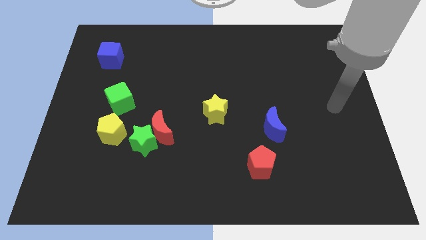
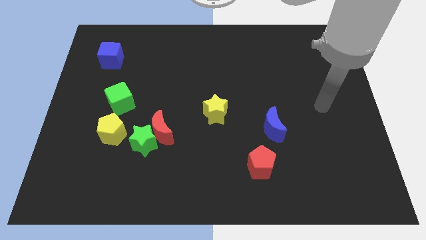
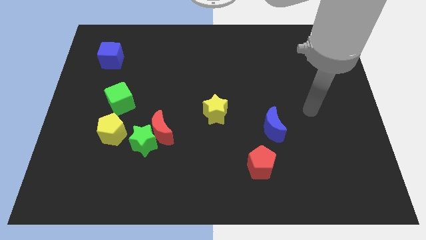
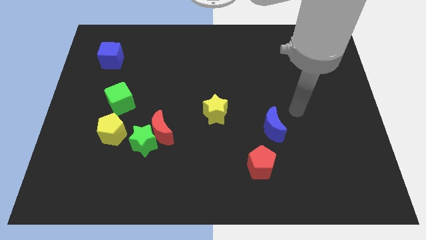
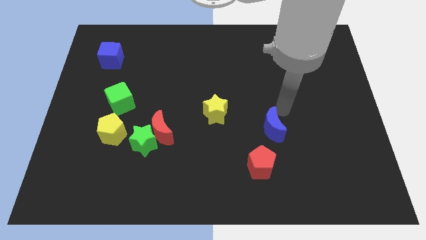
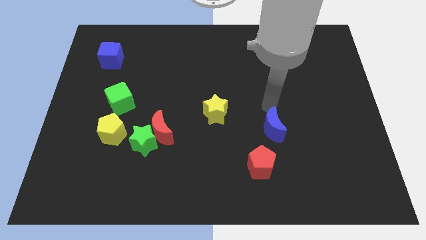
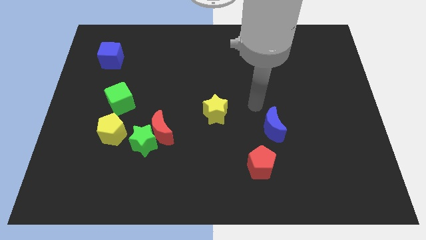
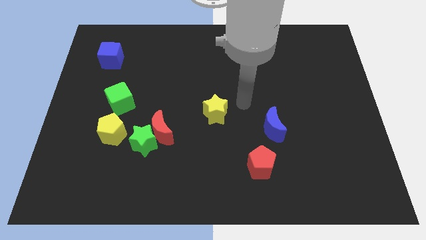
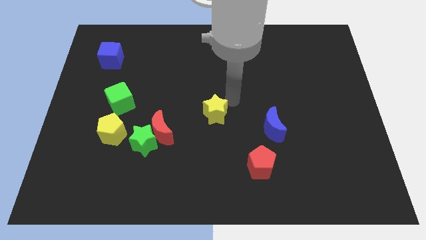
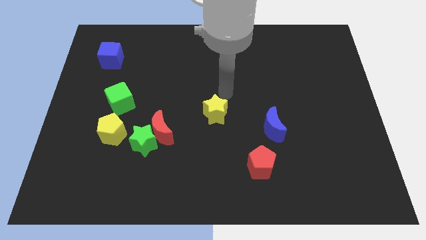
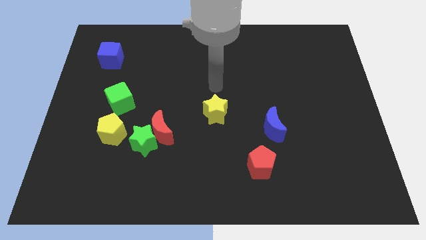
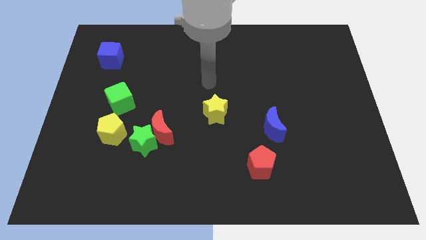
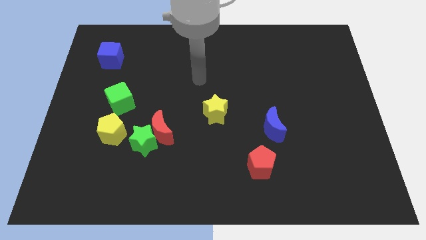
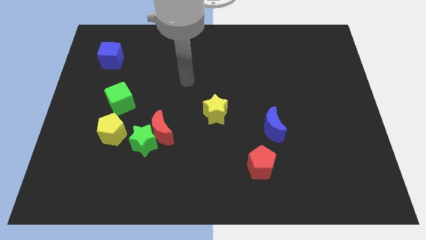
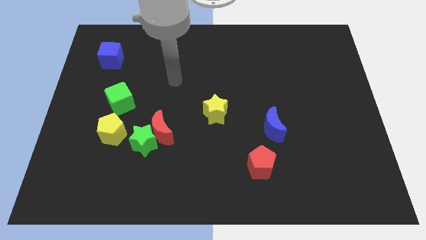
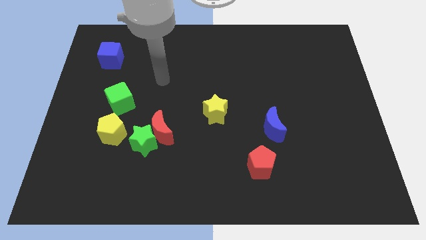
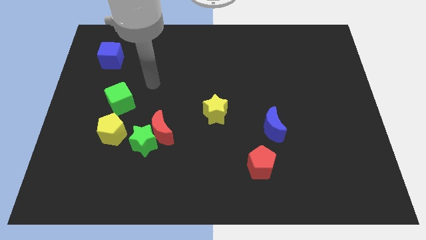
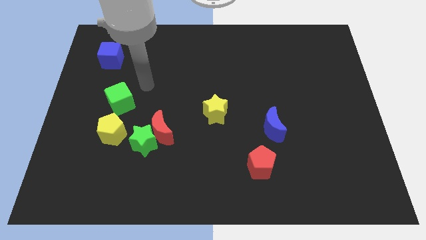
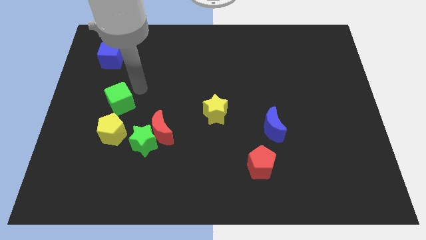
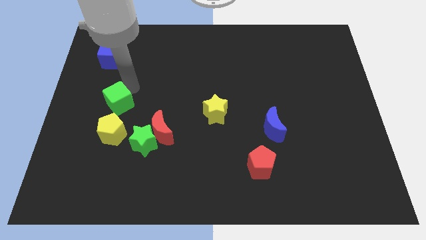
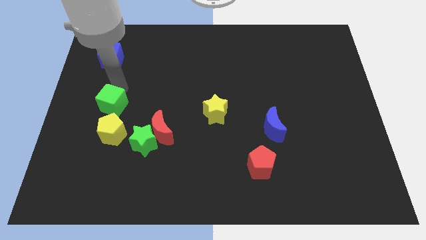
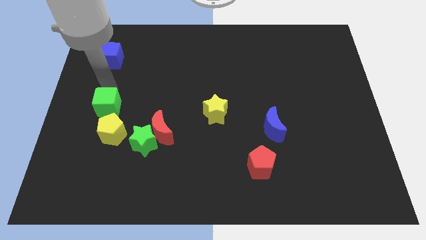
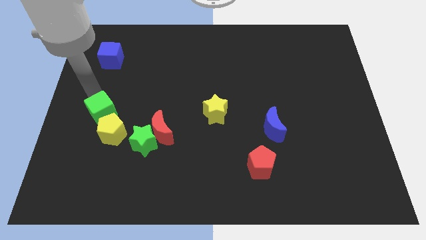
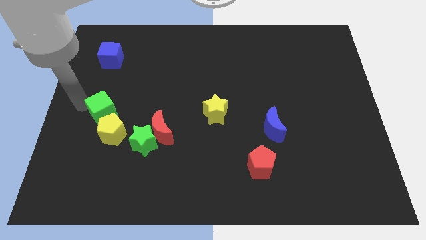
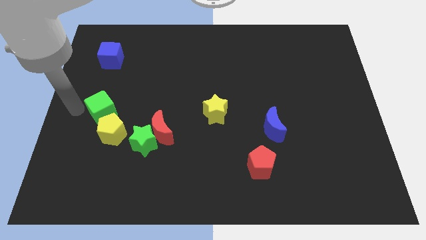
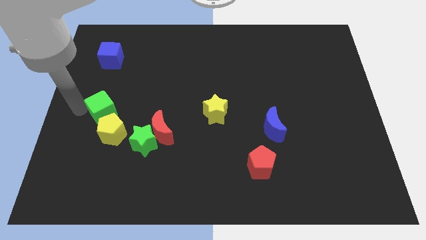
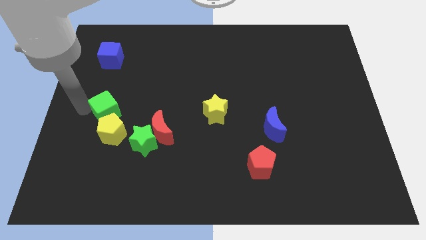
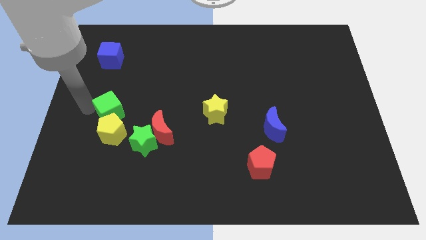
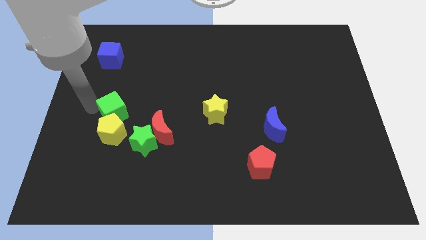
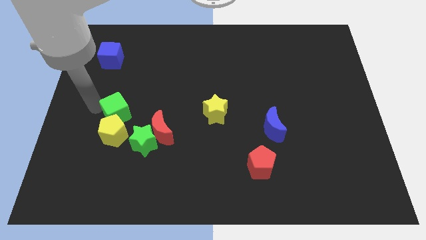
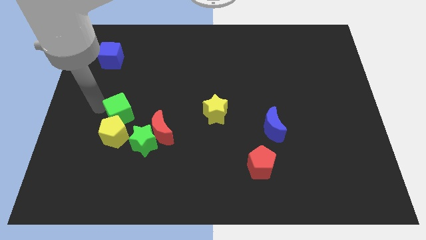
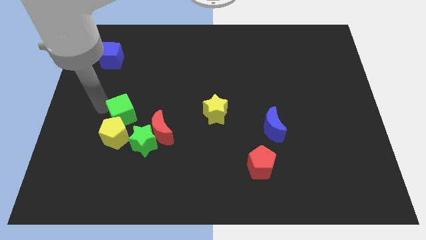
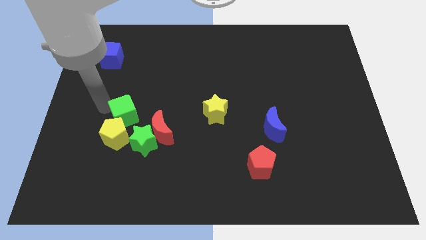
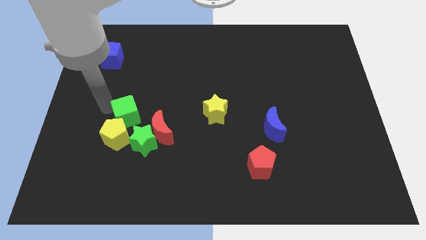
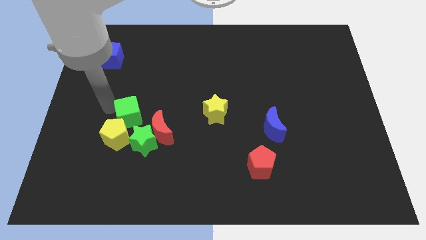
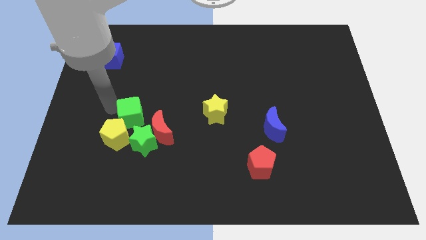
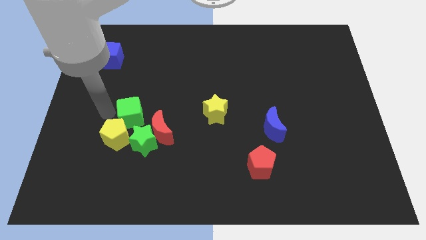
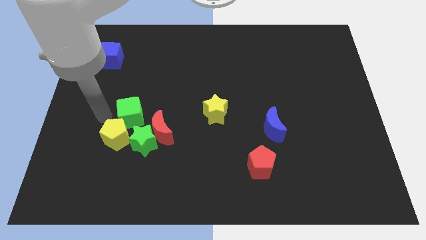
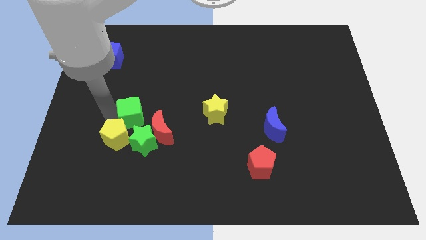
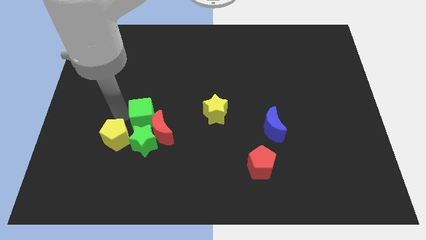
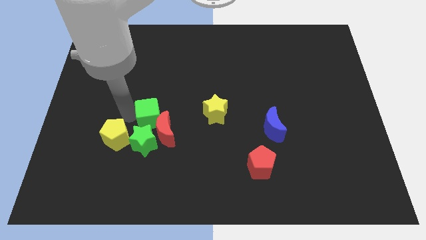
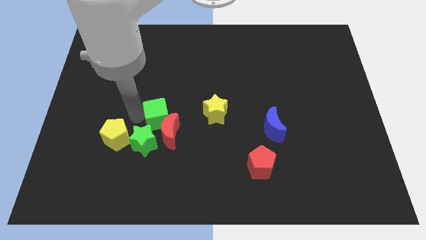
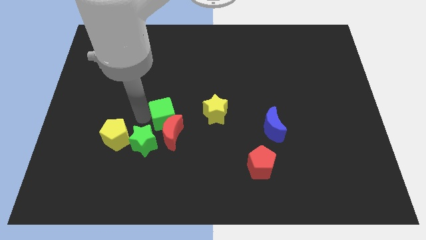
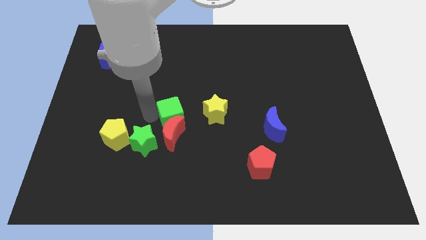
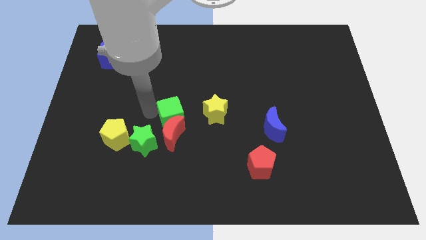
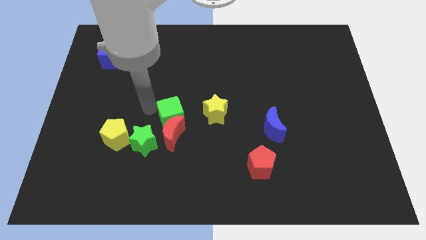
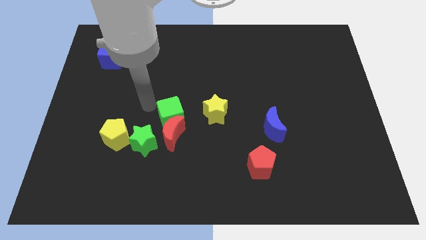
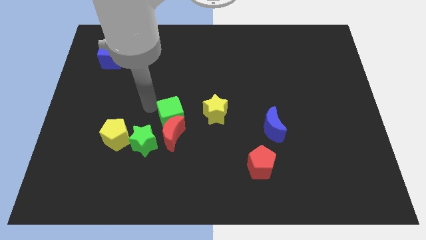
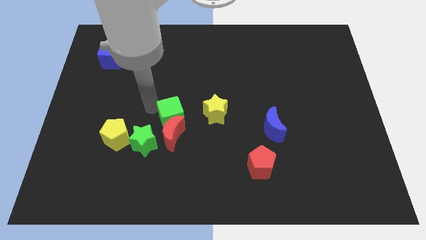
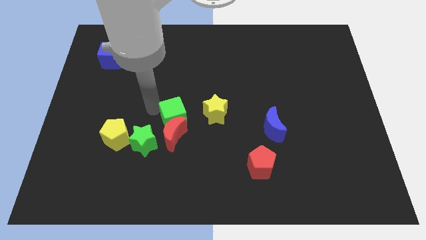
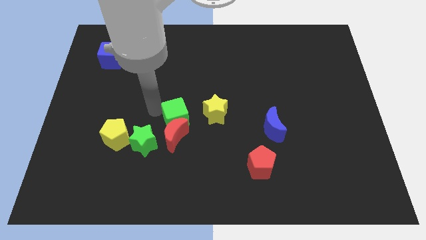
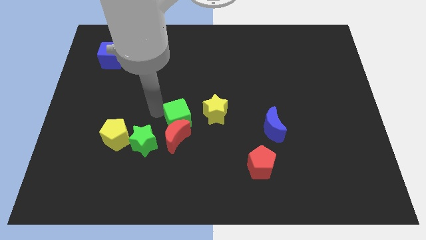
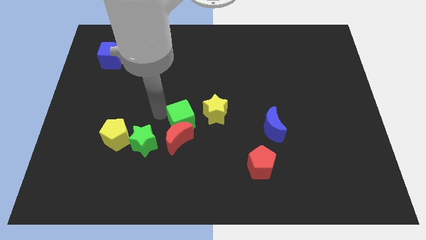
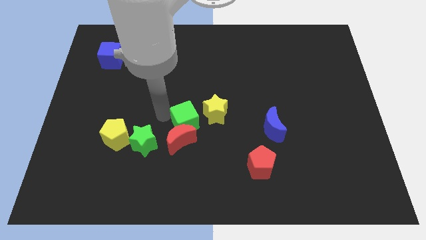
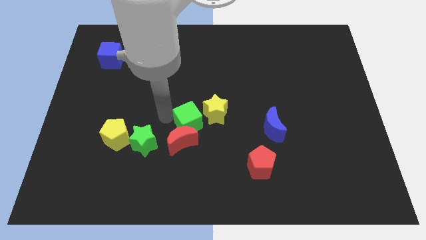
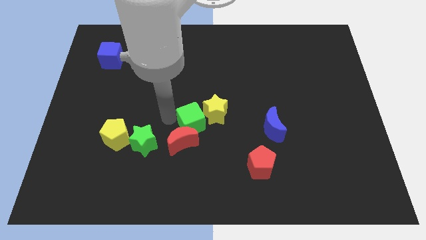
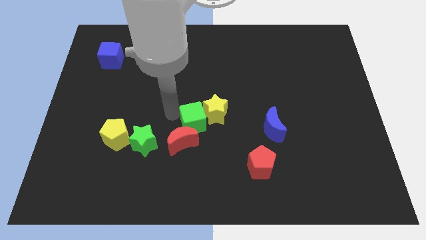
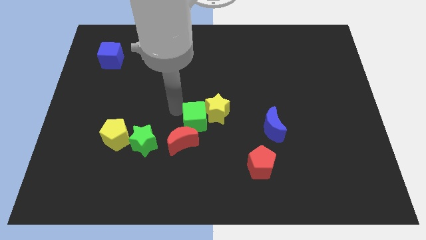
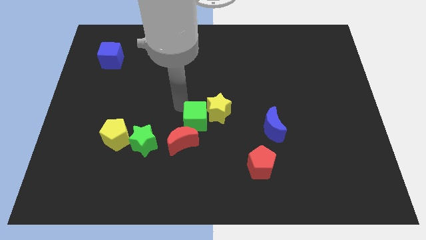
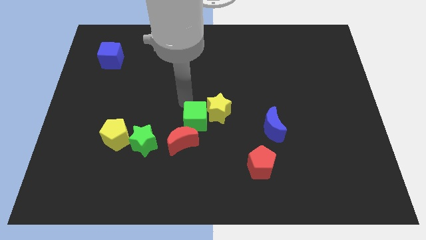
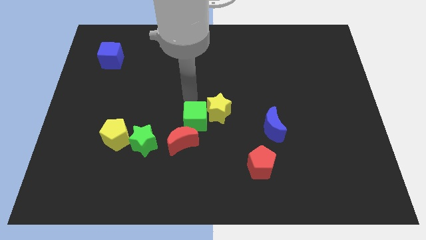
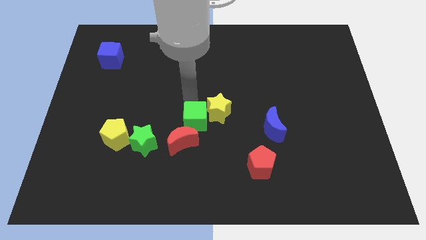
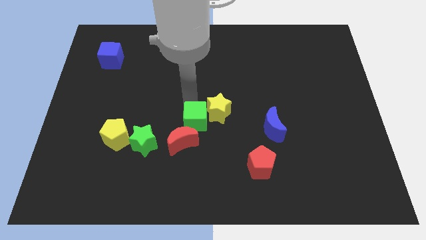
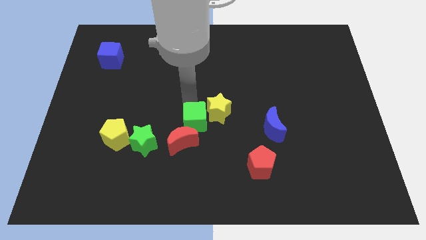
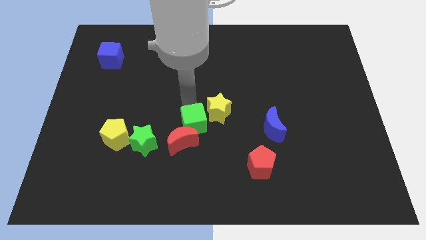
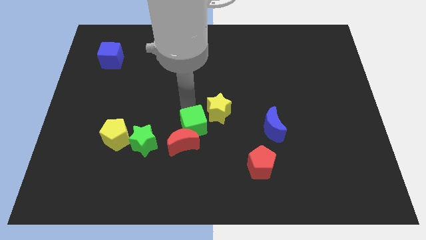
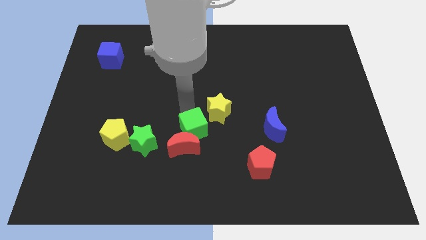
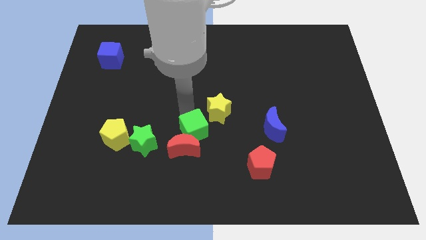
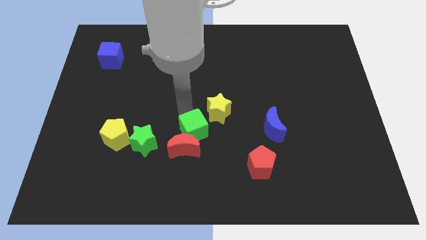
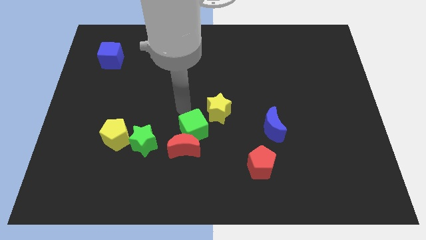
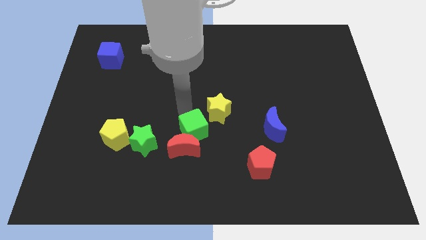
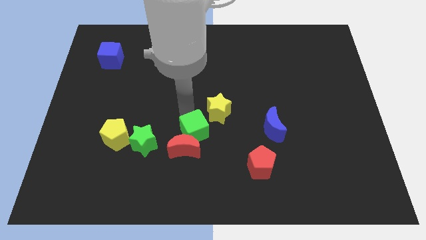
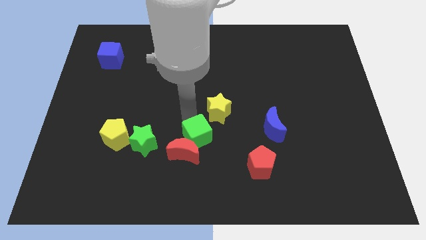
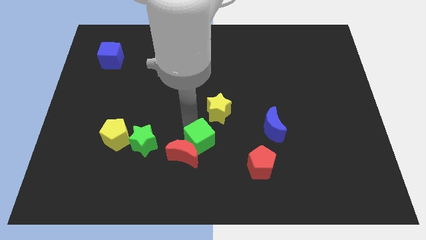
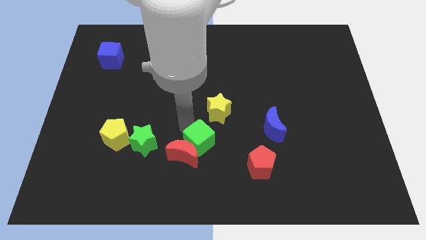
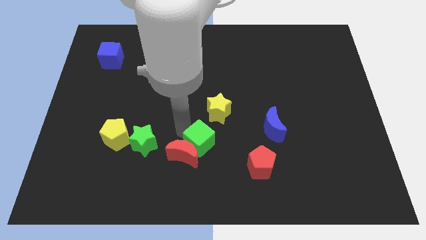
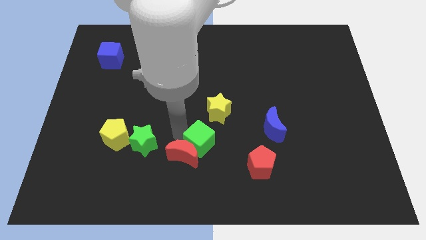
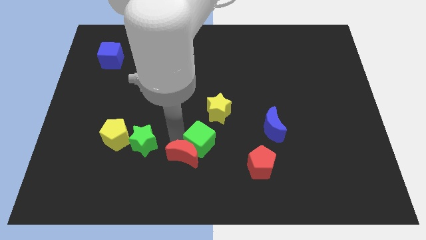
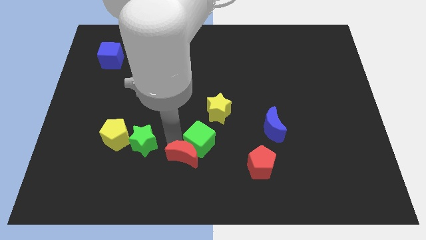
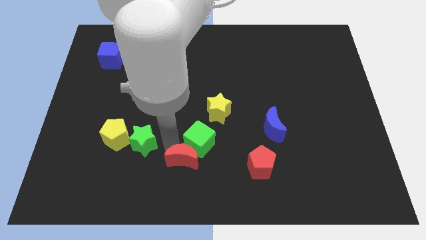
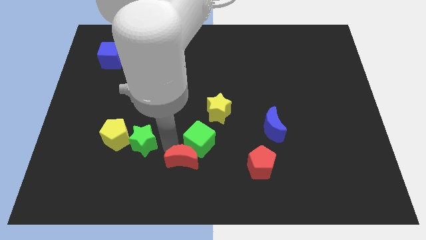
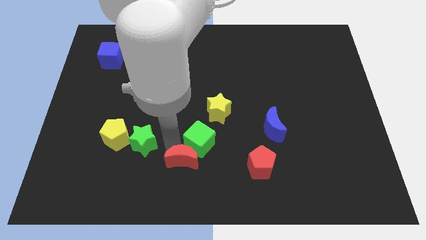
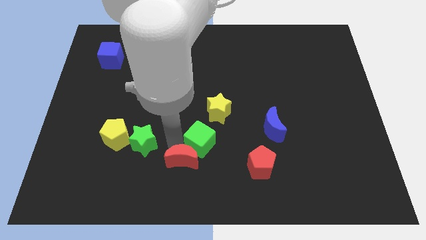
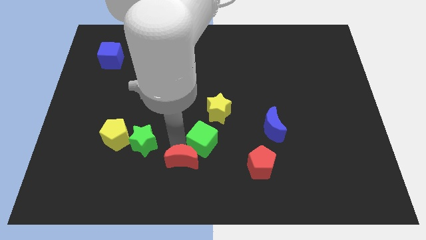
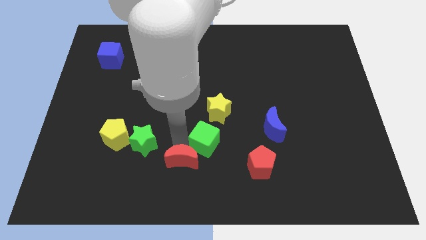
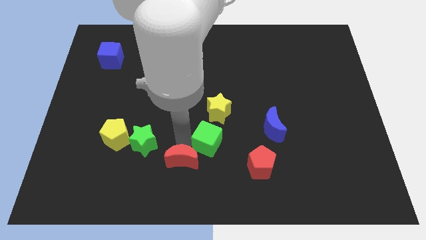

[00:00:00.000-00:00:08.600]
move the green cube left of the blue moon
